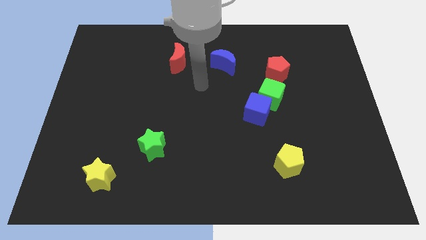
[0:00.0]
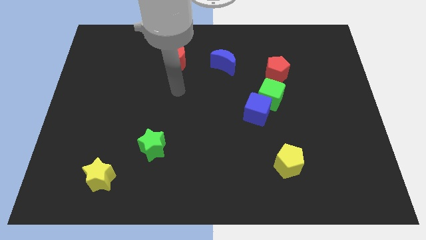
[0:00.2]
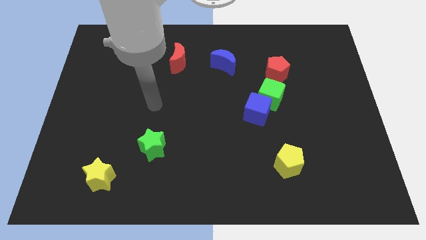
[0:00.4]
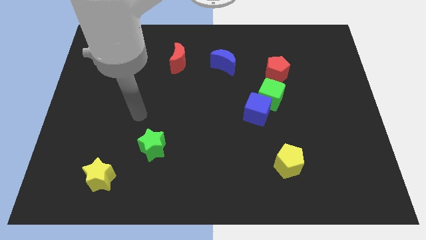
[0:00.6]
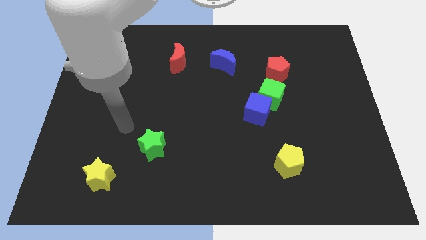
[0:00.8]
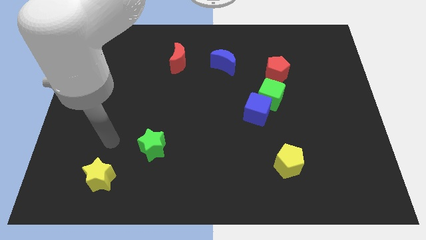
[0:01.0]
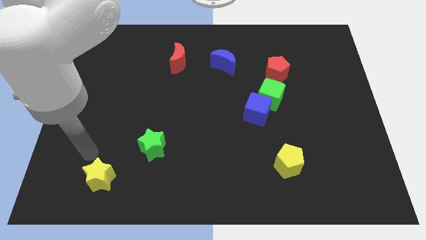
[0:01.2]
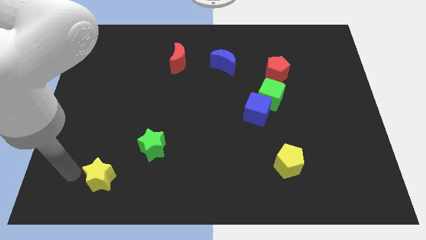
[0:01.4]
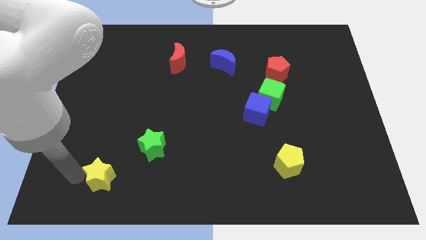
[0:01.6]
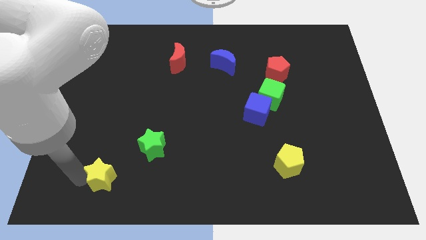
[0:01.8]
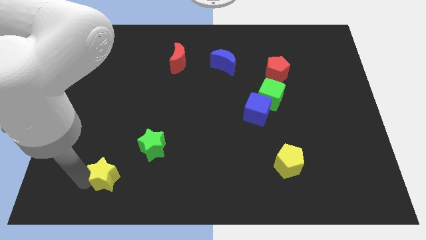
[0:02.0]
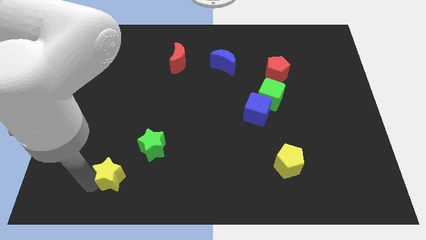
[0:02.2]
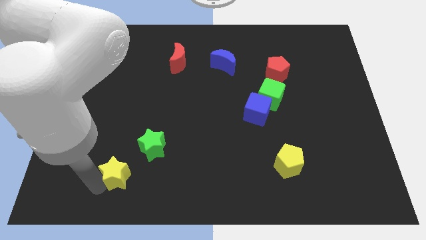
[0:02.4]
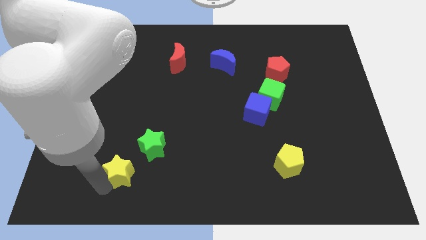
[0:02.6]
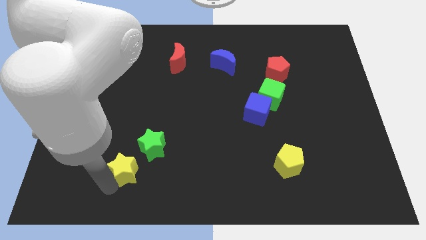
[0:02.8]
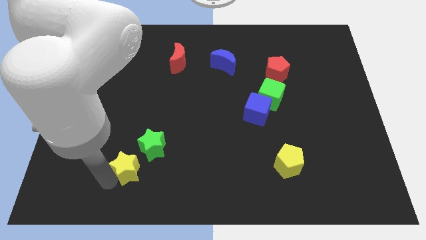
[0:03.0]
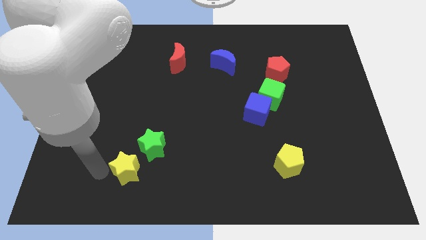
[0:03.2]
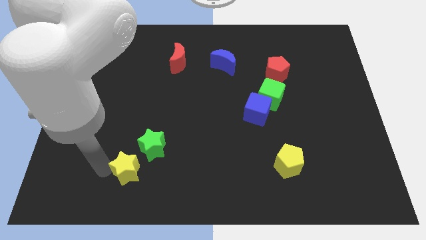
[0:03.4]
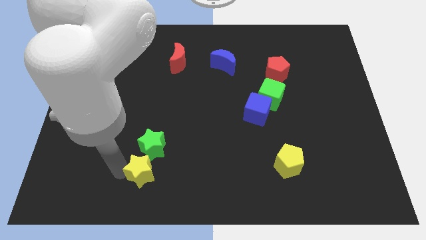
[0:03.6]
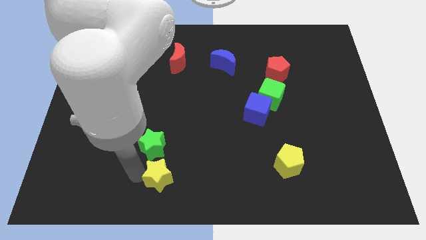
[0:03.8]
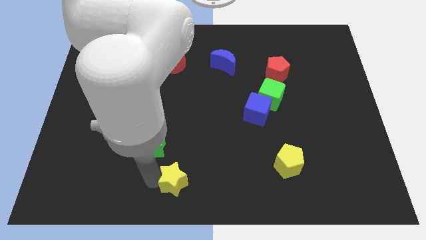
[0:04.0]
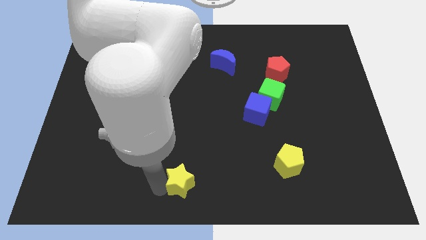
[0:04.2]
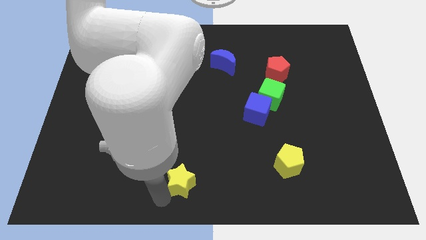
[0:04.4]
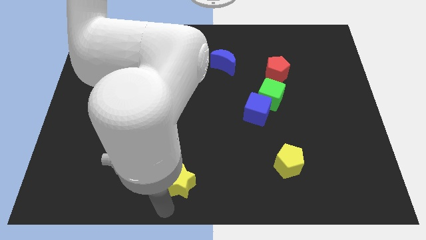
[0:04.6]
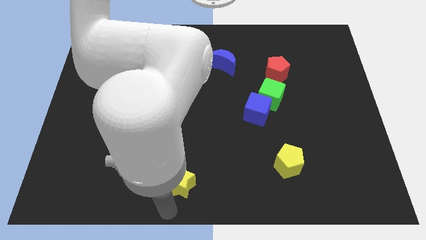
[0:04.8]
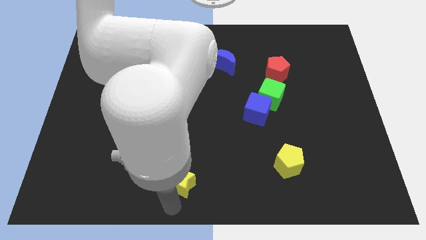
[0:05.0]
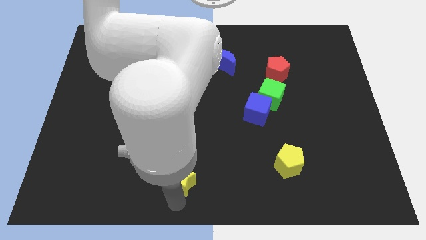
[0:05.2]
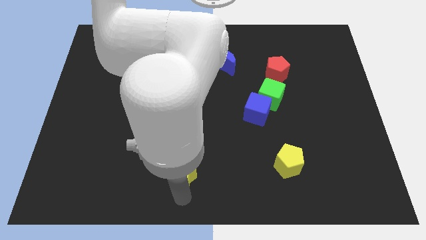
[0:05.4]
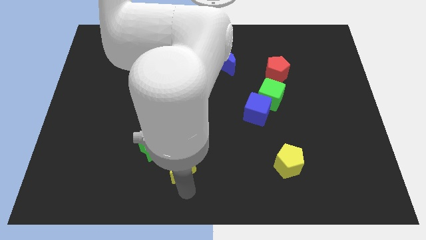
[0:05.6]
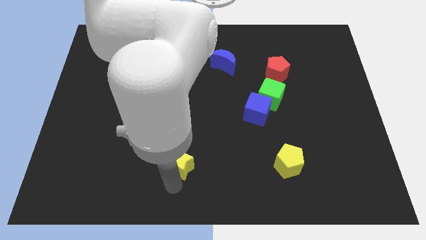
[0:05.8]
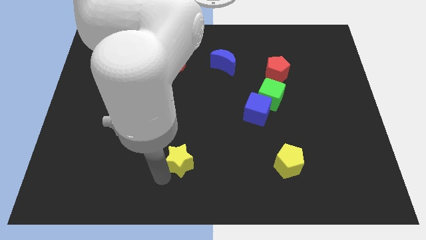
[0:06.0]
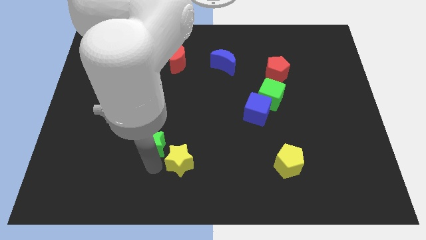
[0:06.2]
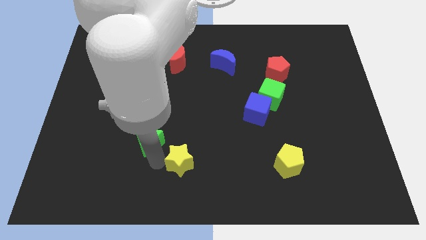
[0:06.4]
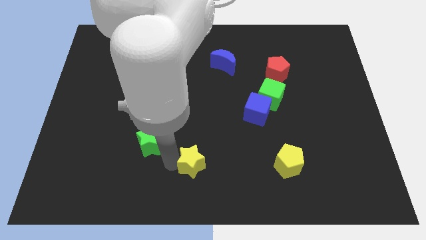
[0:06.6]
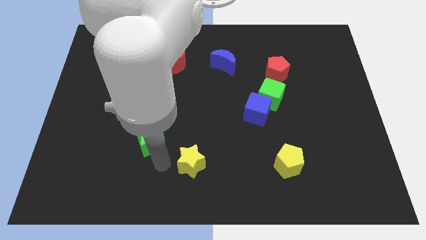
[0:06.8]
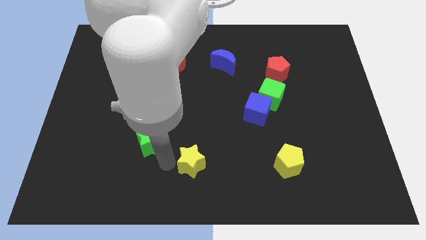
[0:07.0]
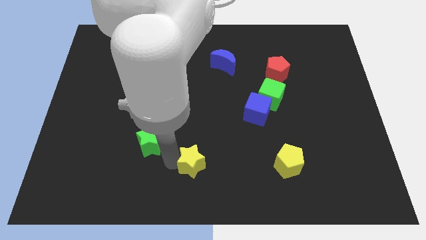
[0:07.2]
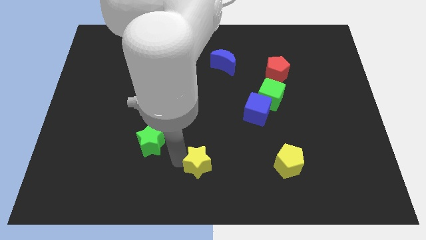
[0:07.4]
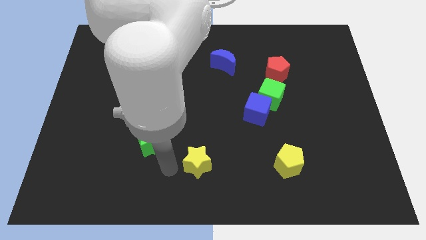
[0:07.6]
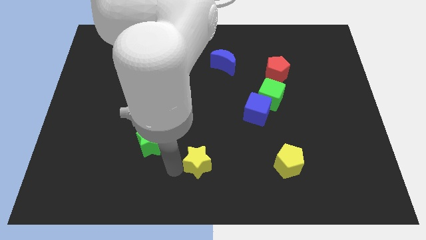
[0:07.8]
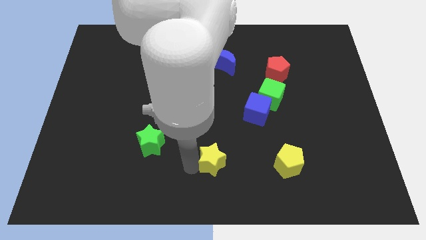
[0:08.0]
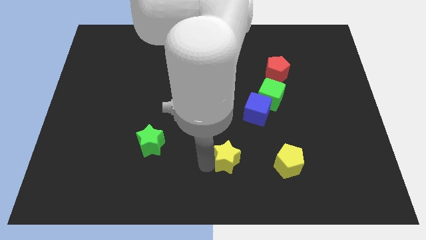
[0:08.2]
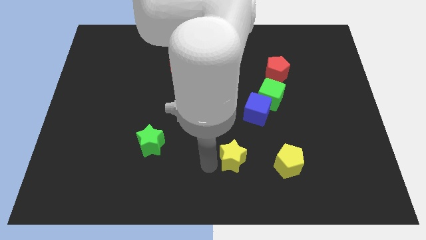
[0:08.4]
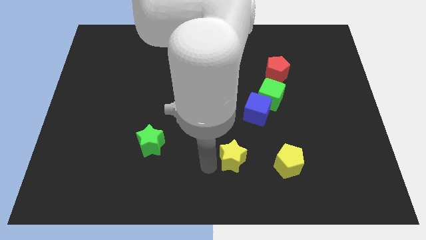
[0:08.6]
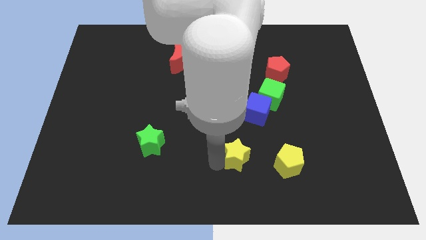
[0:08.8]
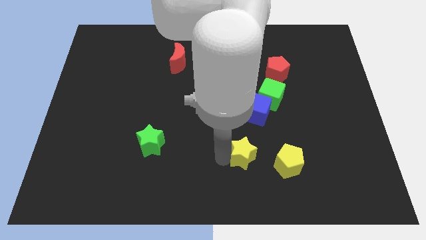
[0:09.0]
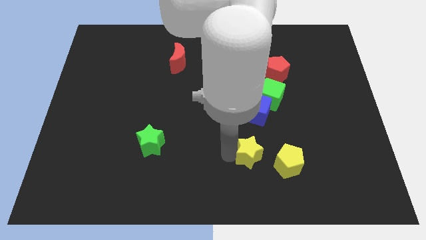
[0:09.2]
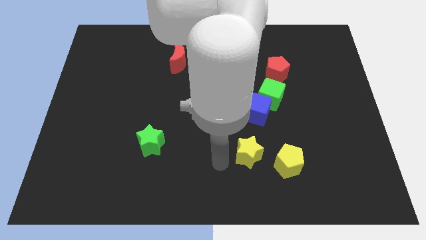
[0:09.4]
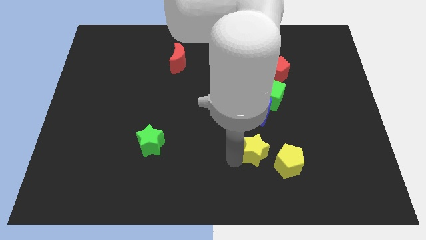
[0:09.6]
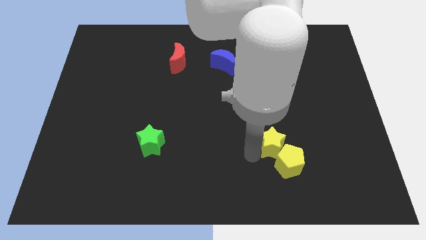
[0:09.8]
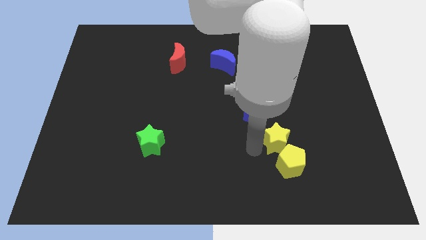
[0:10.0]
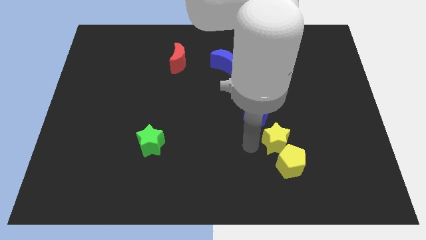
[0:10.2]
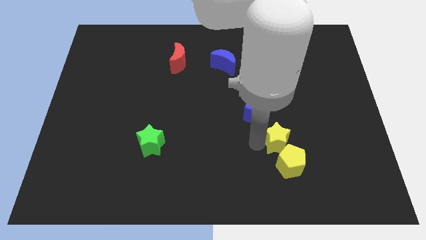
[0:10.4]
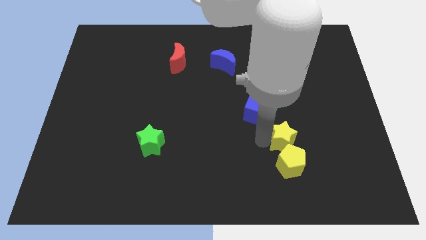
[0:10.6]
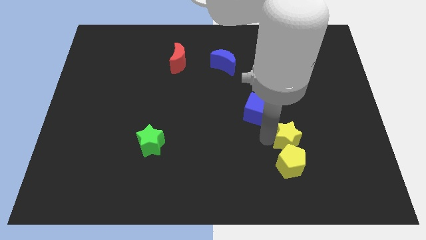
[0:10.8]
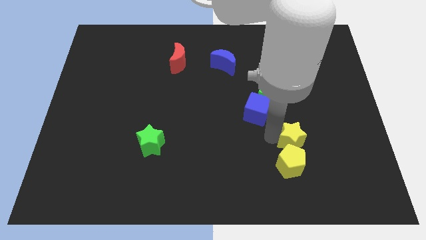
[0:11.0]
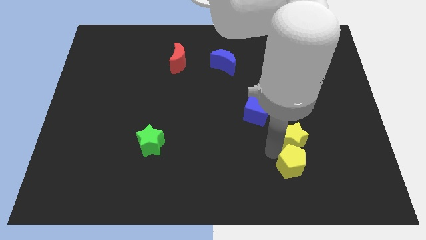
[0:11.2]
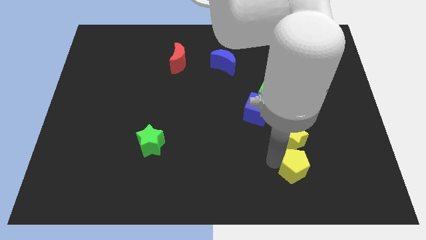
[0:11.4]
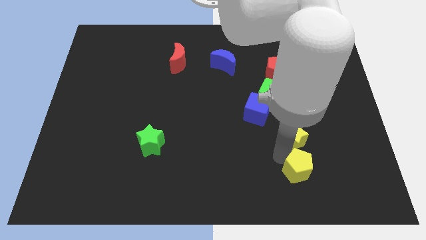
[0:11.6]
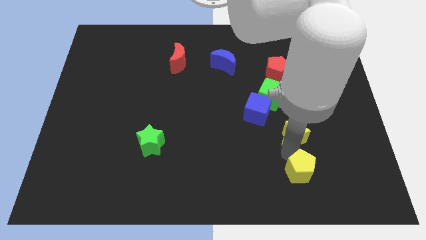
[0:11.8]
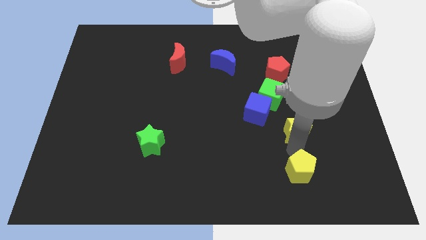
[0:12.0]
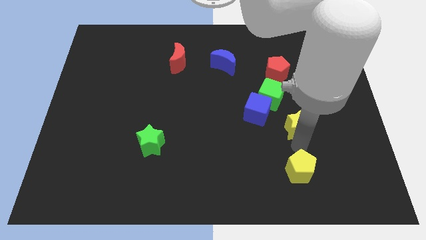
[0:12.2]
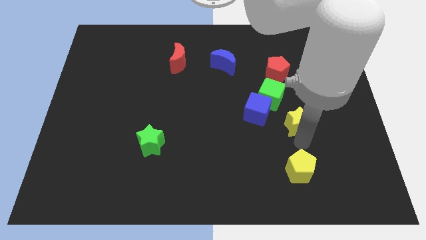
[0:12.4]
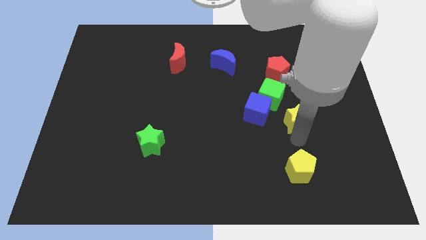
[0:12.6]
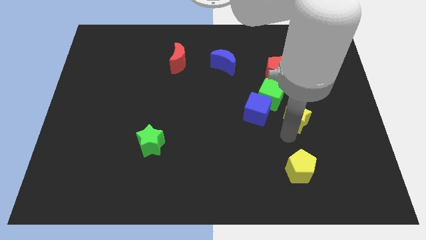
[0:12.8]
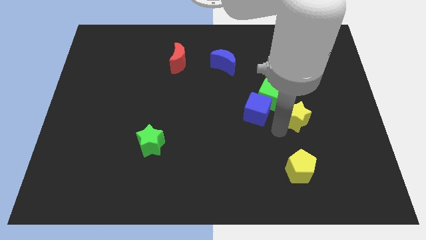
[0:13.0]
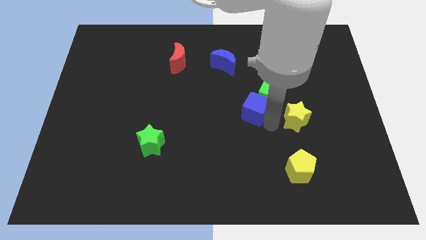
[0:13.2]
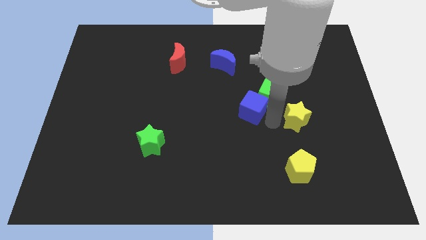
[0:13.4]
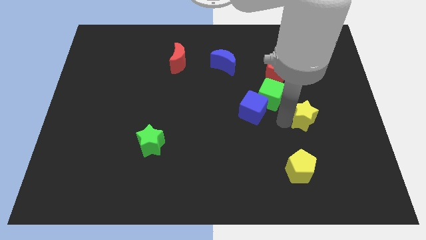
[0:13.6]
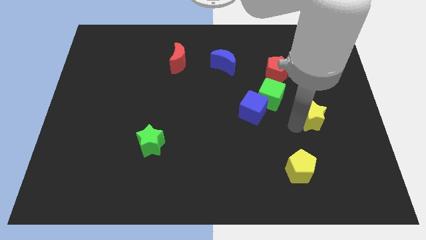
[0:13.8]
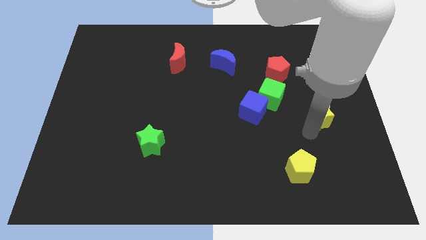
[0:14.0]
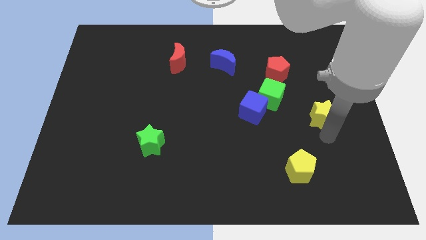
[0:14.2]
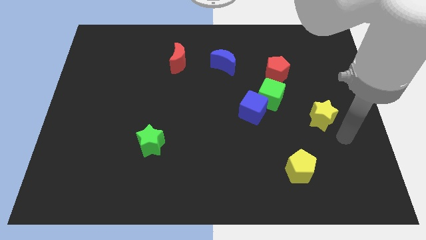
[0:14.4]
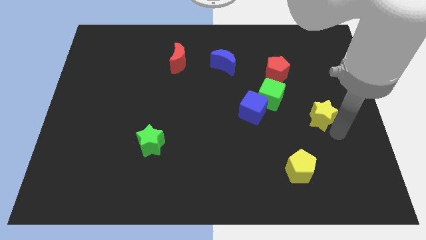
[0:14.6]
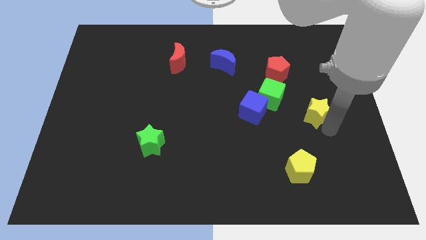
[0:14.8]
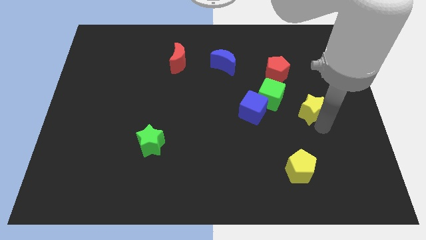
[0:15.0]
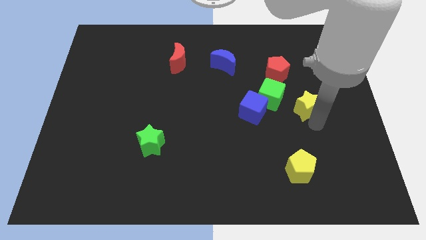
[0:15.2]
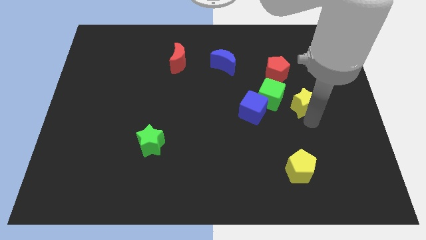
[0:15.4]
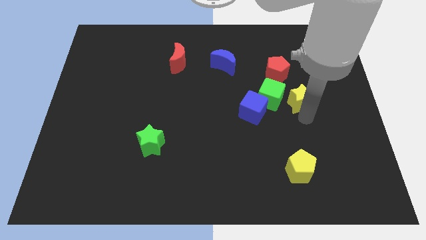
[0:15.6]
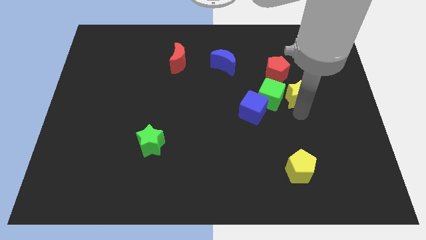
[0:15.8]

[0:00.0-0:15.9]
slide the yellow star to the top right side of the green cube
